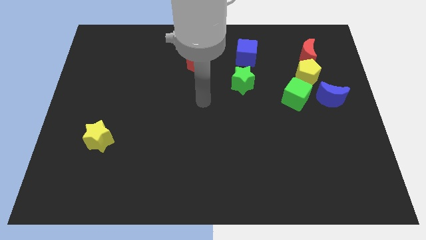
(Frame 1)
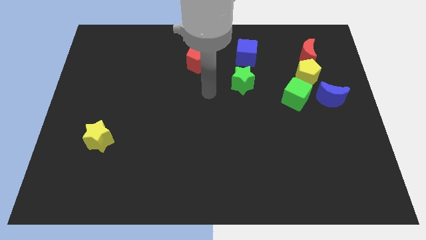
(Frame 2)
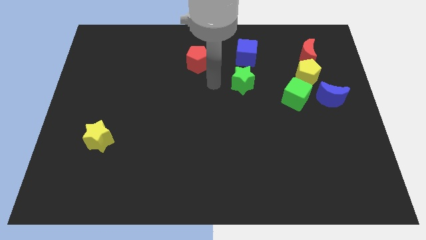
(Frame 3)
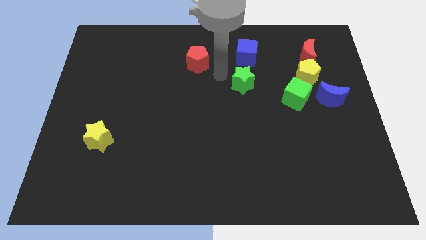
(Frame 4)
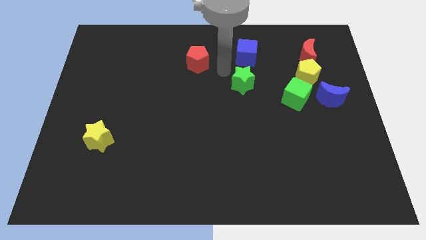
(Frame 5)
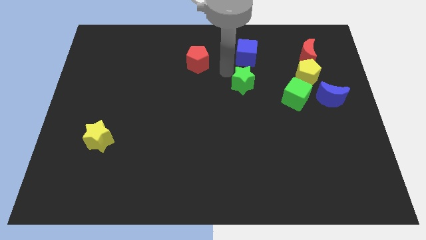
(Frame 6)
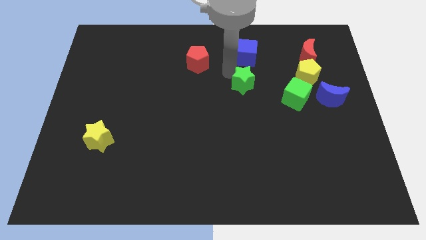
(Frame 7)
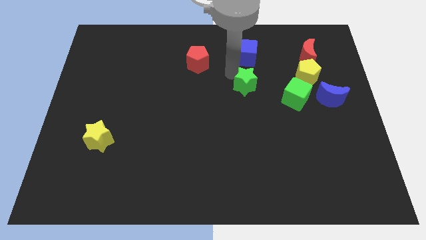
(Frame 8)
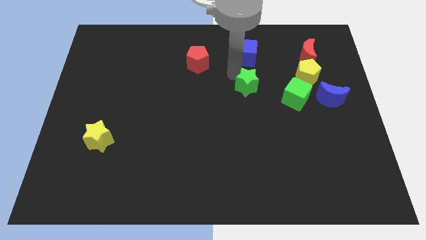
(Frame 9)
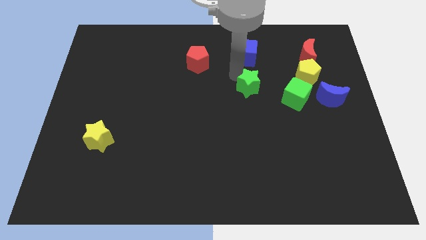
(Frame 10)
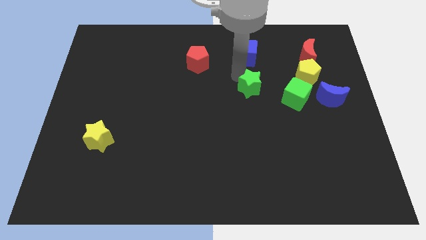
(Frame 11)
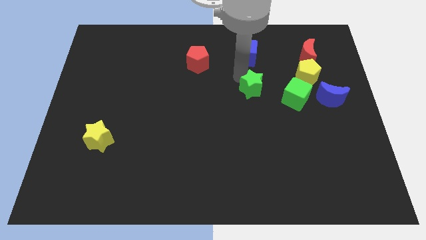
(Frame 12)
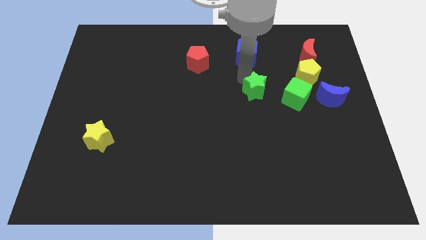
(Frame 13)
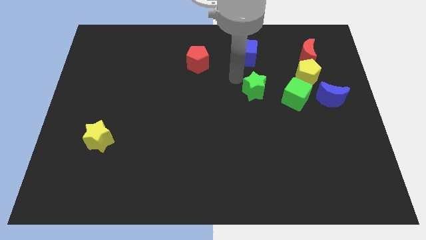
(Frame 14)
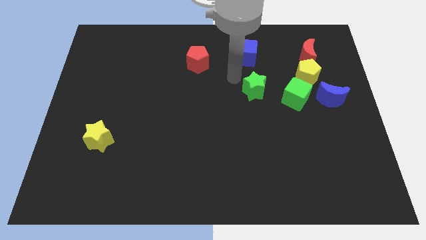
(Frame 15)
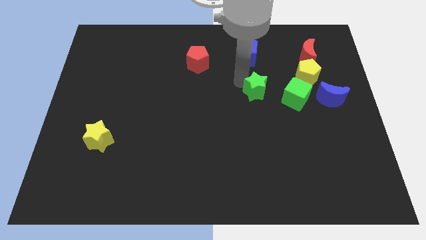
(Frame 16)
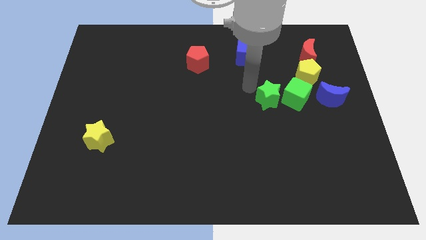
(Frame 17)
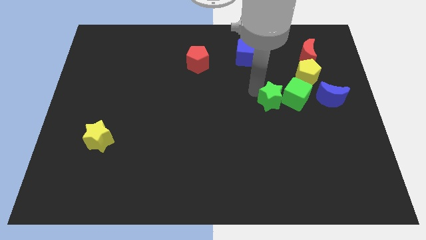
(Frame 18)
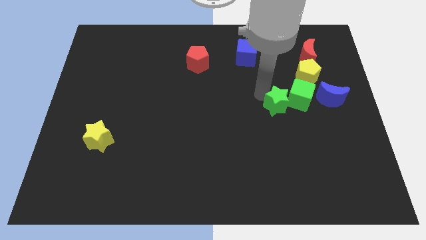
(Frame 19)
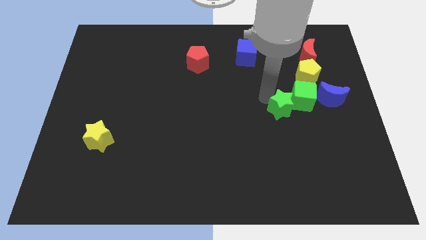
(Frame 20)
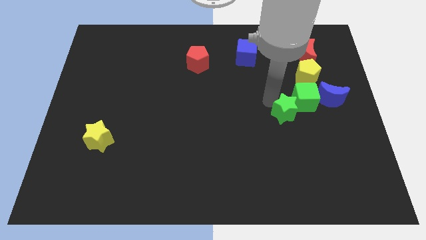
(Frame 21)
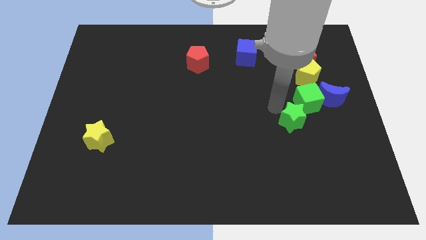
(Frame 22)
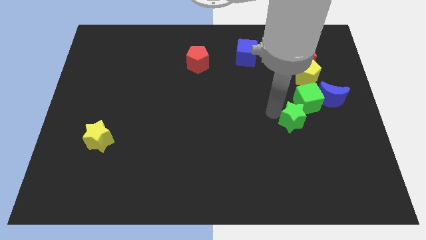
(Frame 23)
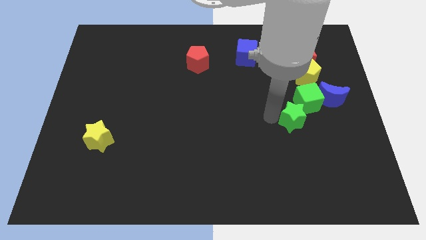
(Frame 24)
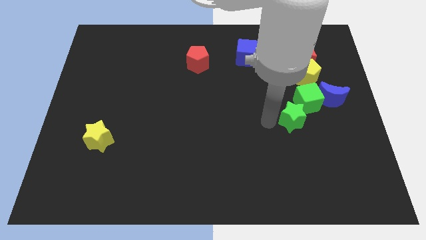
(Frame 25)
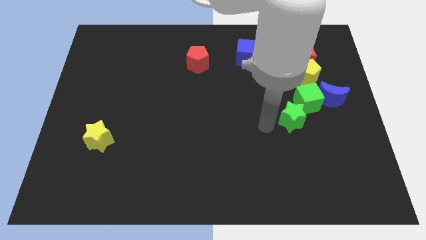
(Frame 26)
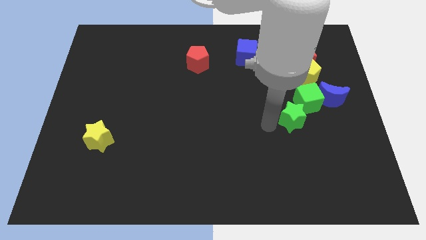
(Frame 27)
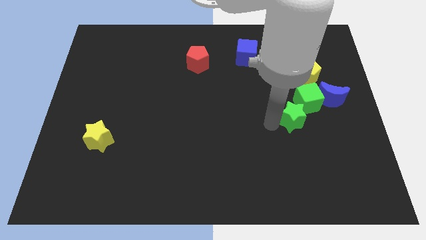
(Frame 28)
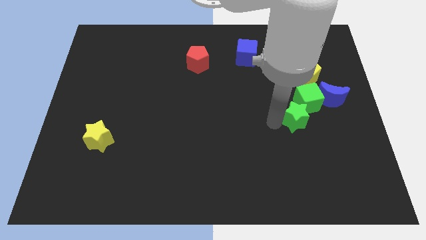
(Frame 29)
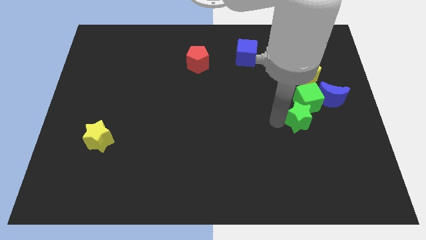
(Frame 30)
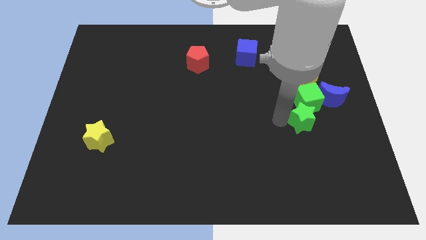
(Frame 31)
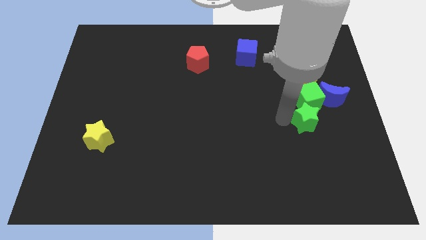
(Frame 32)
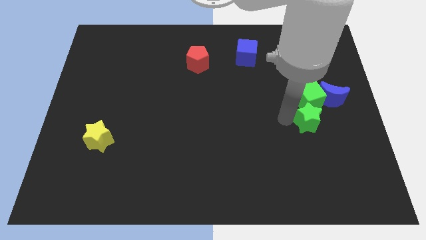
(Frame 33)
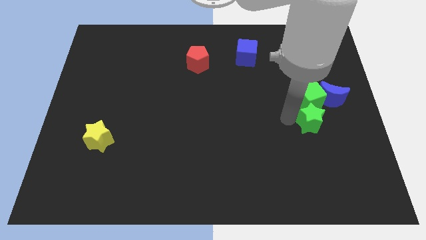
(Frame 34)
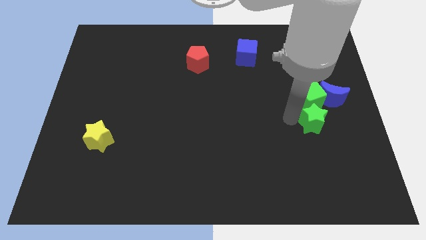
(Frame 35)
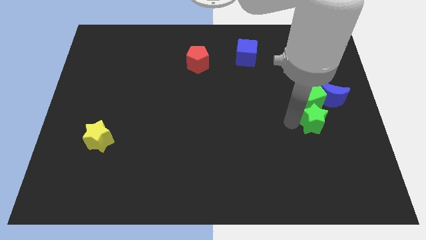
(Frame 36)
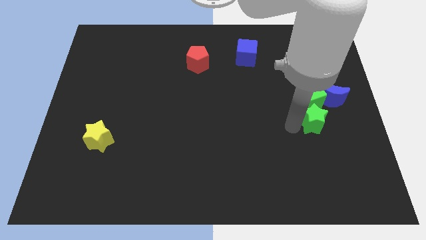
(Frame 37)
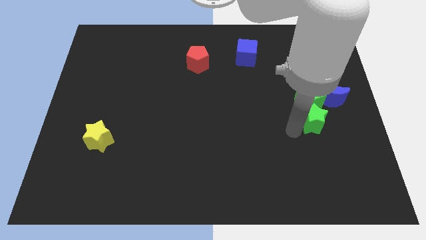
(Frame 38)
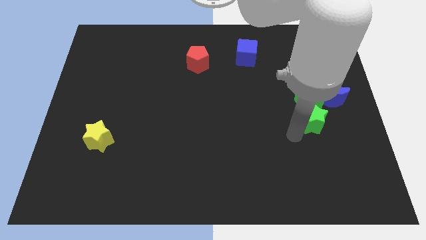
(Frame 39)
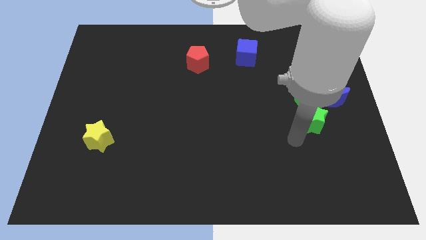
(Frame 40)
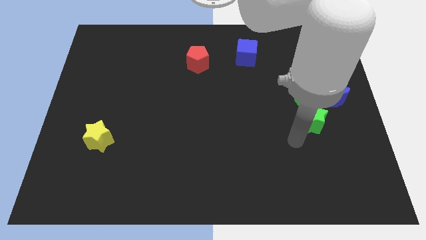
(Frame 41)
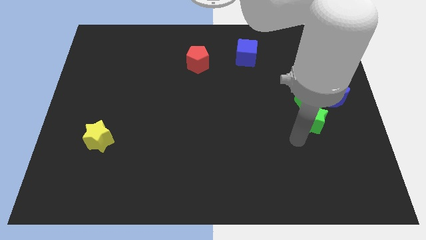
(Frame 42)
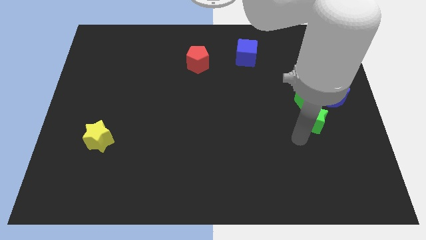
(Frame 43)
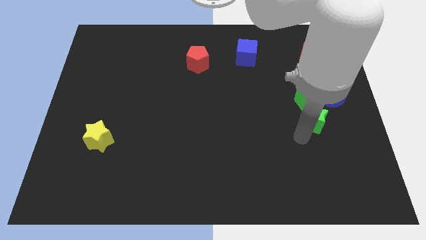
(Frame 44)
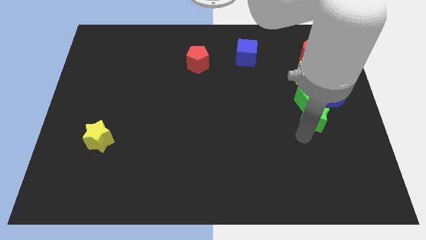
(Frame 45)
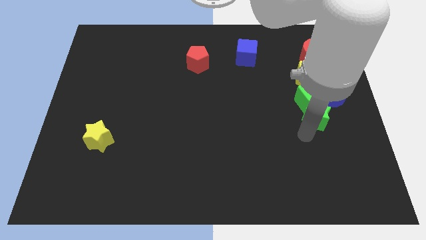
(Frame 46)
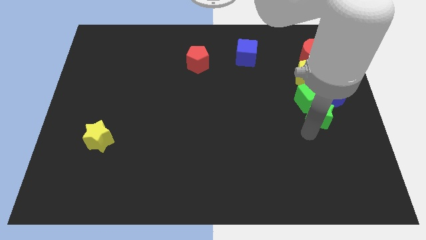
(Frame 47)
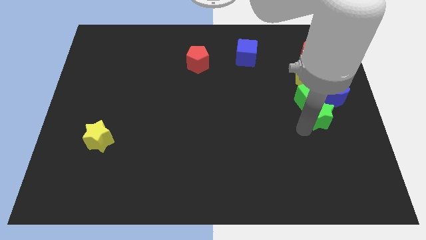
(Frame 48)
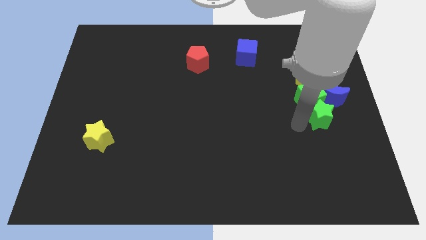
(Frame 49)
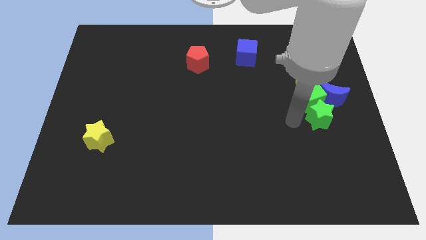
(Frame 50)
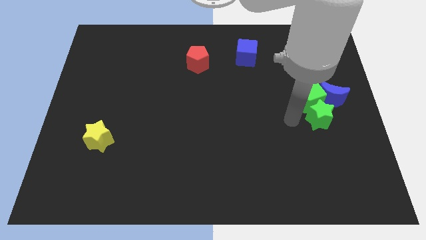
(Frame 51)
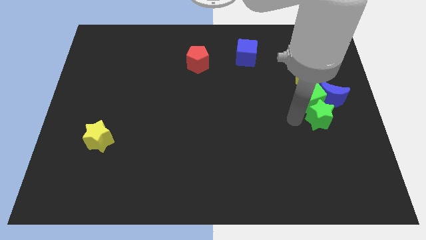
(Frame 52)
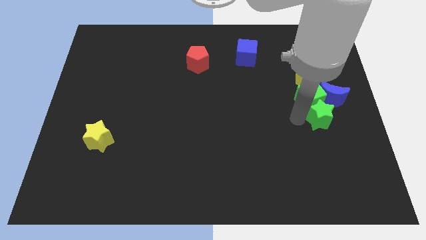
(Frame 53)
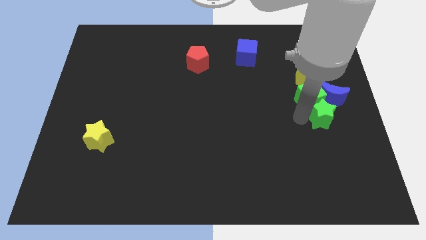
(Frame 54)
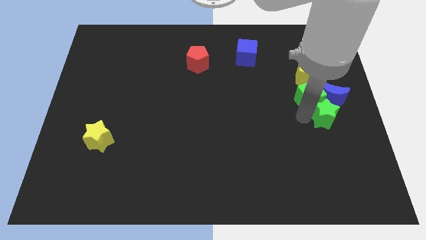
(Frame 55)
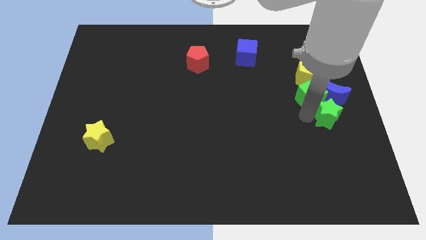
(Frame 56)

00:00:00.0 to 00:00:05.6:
move the green star to the right side
